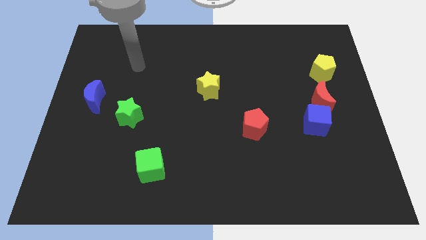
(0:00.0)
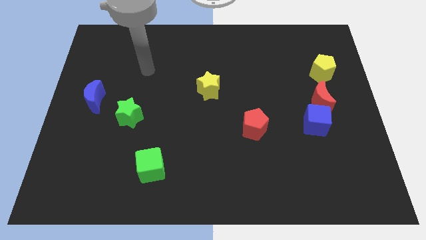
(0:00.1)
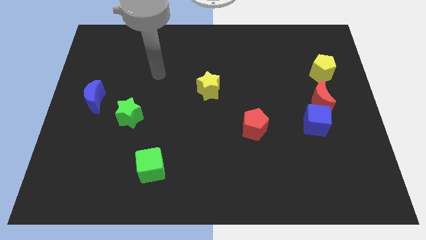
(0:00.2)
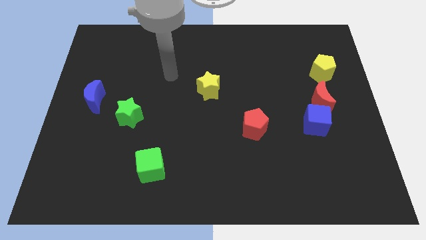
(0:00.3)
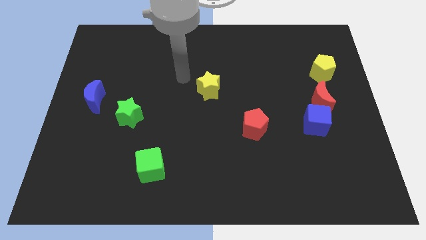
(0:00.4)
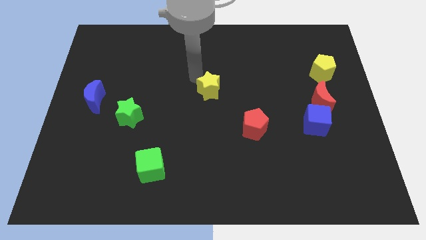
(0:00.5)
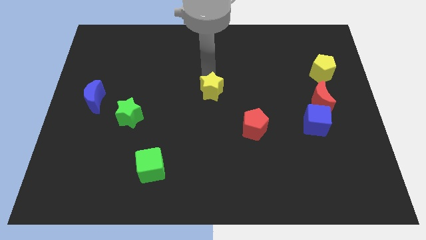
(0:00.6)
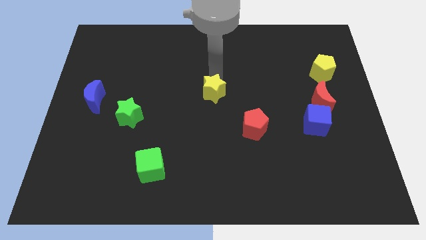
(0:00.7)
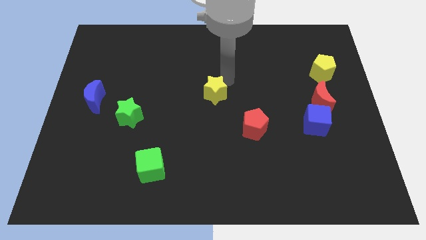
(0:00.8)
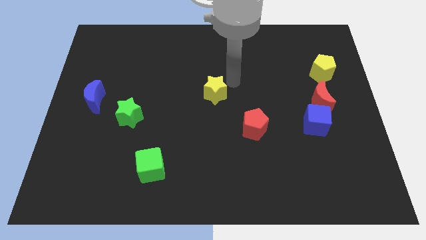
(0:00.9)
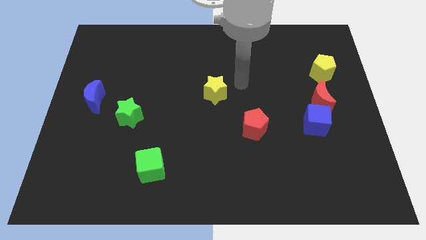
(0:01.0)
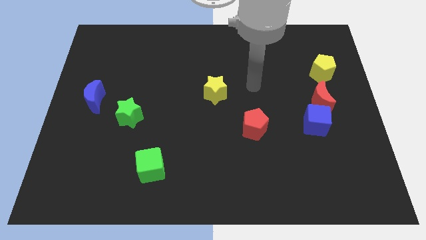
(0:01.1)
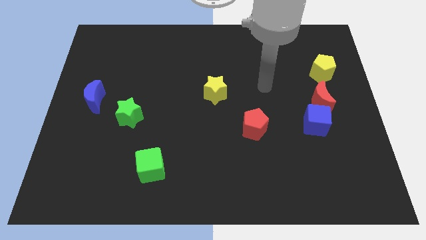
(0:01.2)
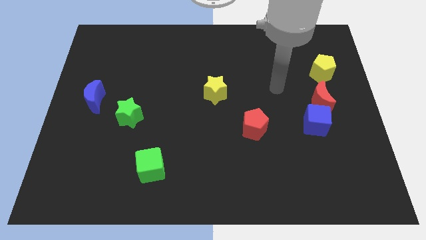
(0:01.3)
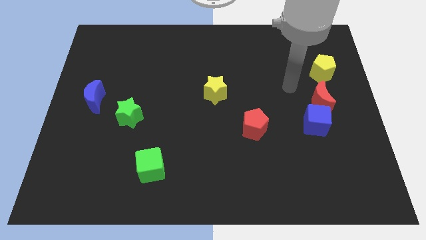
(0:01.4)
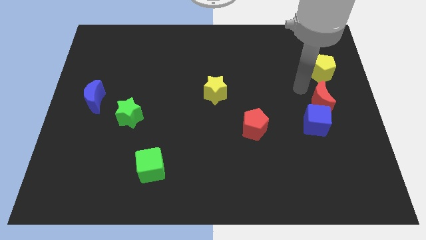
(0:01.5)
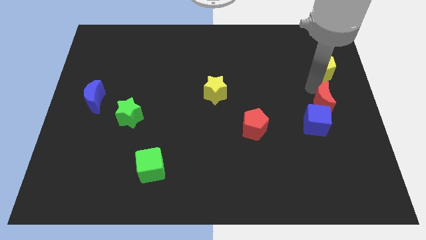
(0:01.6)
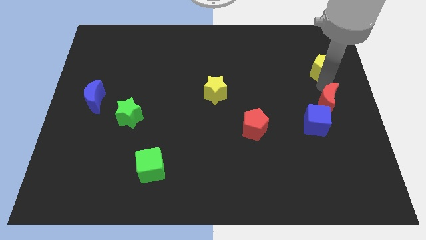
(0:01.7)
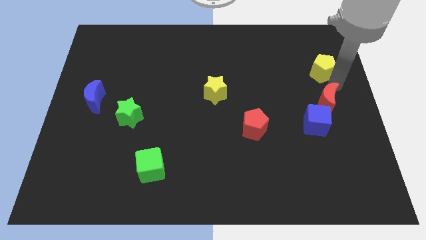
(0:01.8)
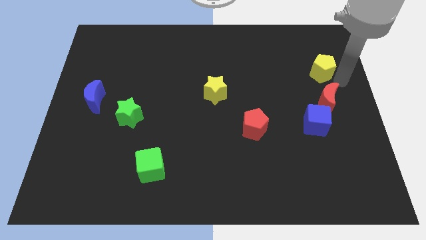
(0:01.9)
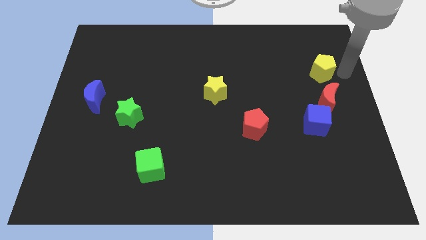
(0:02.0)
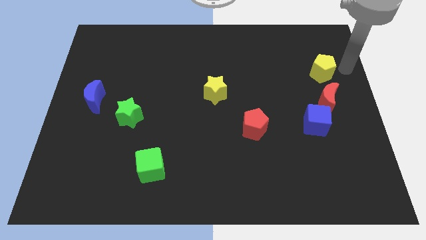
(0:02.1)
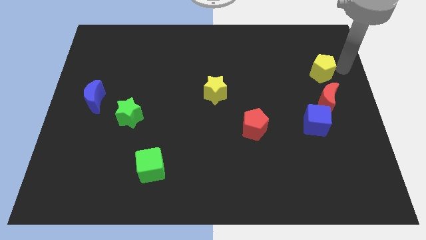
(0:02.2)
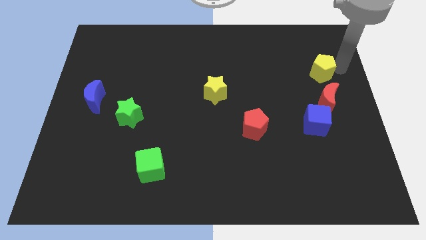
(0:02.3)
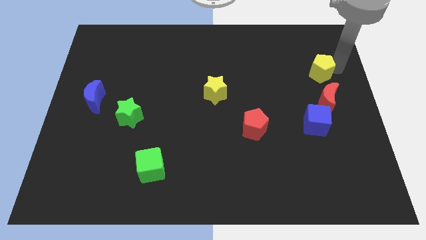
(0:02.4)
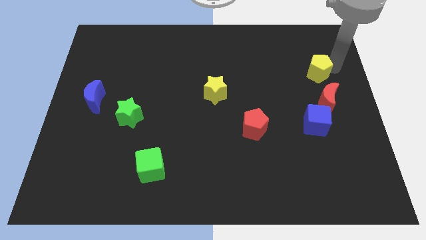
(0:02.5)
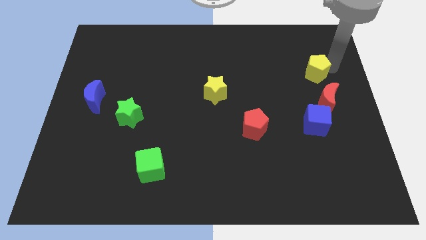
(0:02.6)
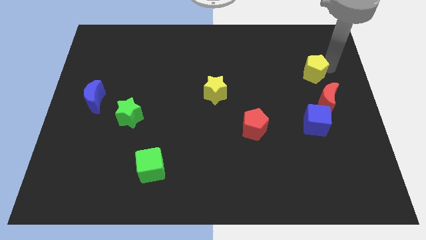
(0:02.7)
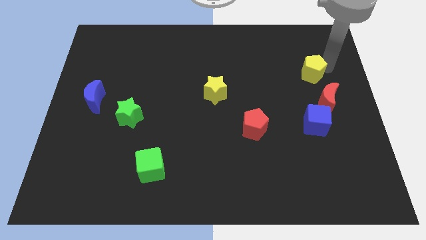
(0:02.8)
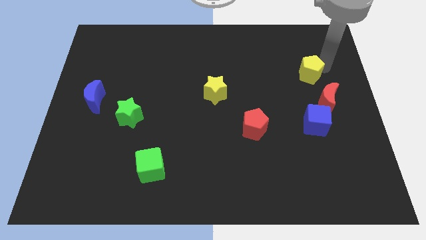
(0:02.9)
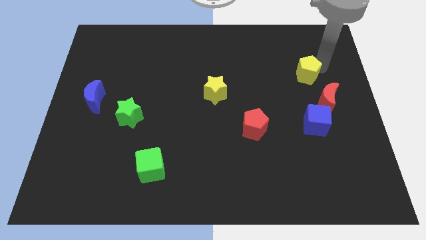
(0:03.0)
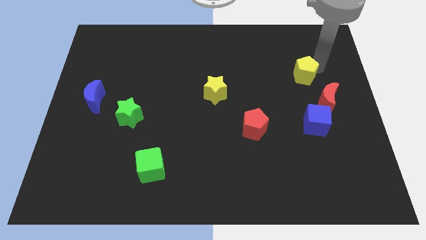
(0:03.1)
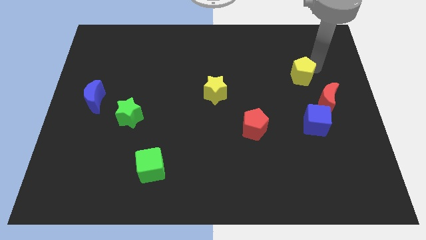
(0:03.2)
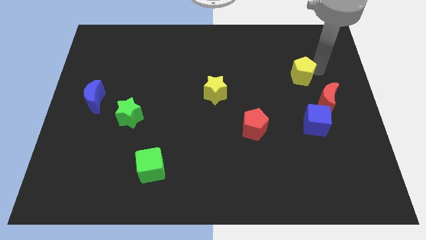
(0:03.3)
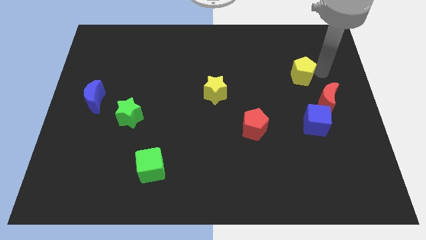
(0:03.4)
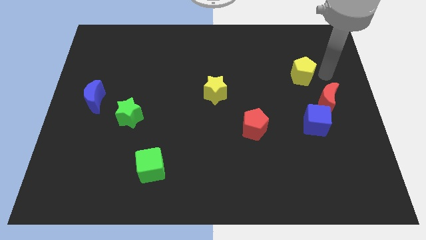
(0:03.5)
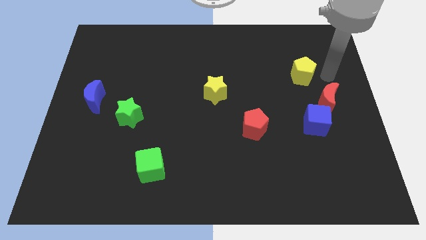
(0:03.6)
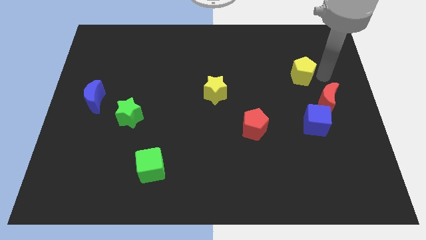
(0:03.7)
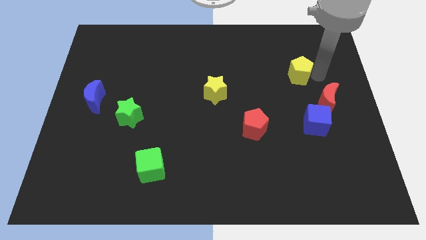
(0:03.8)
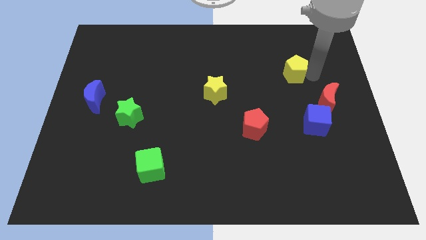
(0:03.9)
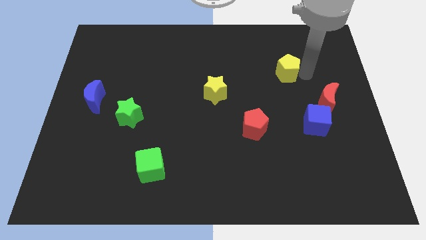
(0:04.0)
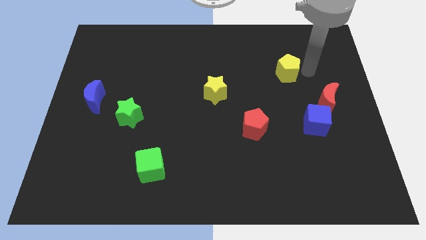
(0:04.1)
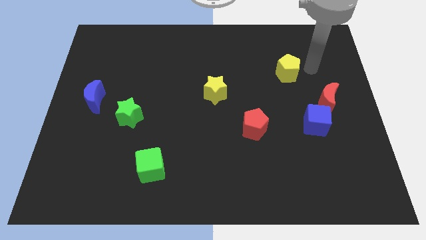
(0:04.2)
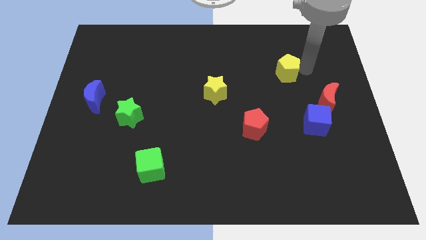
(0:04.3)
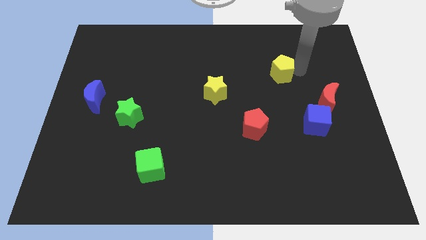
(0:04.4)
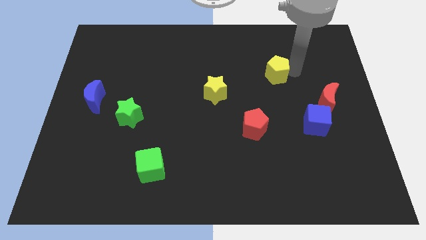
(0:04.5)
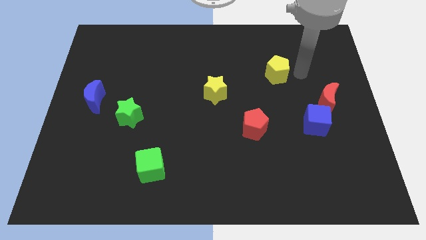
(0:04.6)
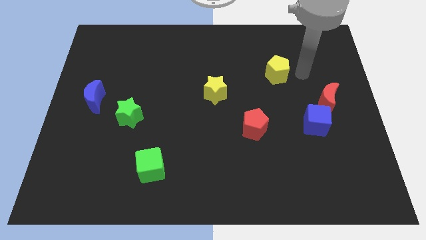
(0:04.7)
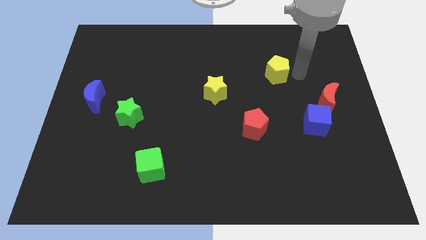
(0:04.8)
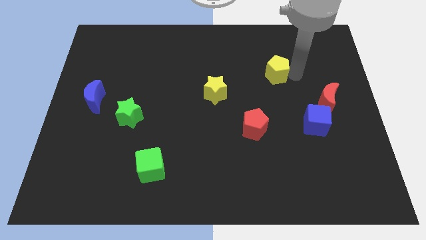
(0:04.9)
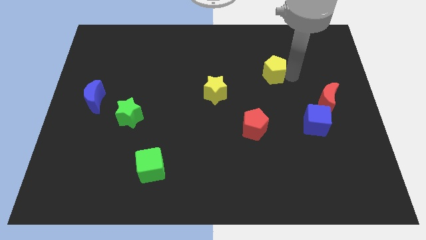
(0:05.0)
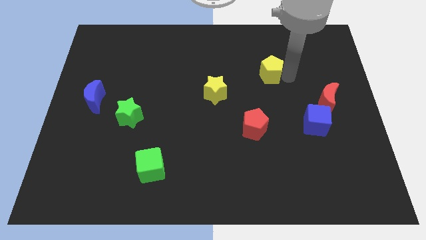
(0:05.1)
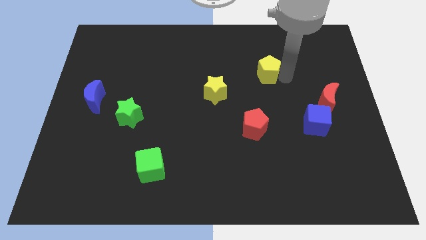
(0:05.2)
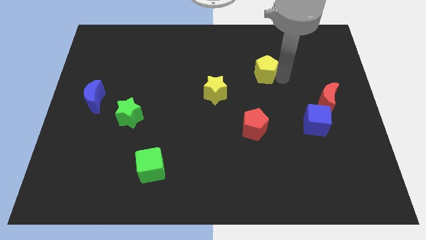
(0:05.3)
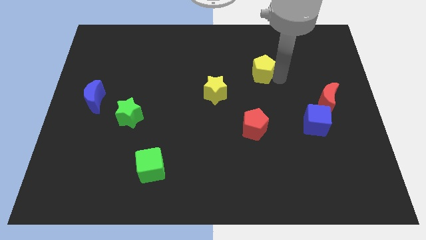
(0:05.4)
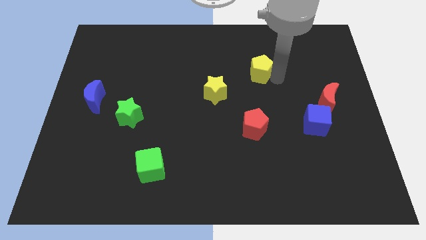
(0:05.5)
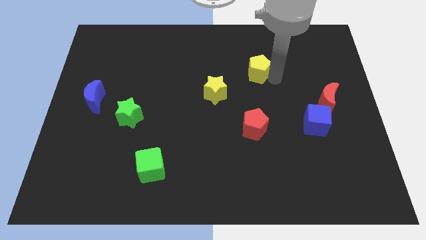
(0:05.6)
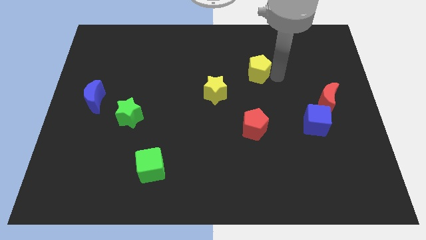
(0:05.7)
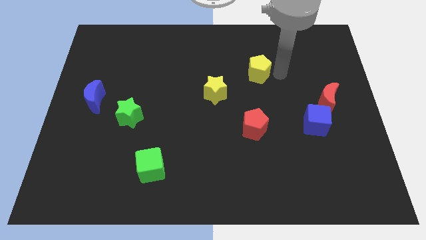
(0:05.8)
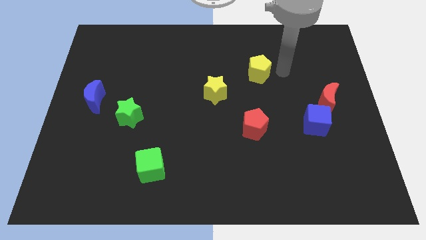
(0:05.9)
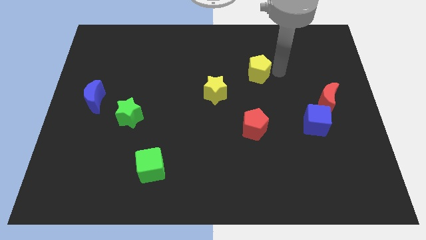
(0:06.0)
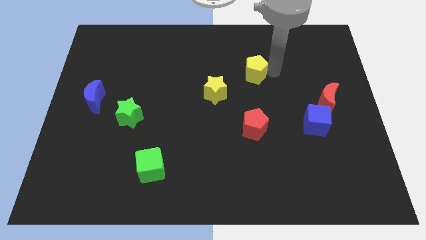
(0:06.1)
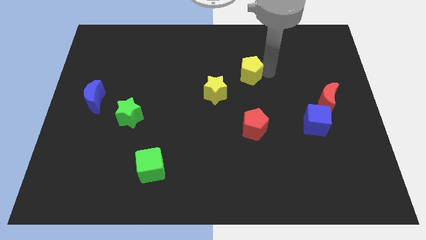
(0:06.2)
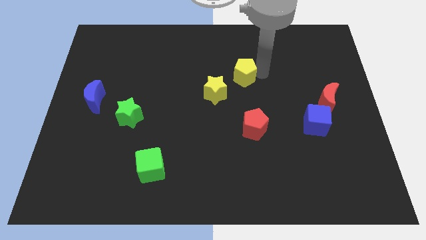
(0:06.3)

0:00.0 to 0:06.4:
slide the yellow pentagon to the left

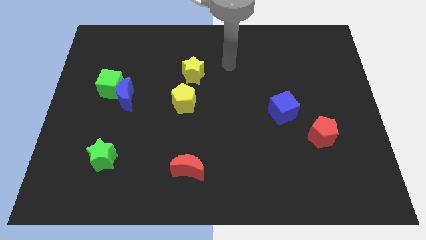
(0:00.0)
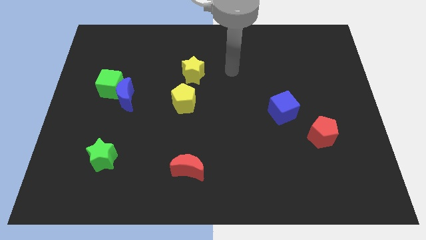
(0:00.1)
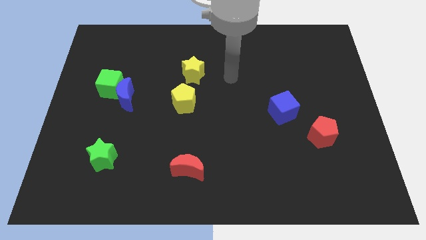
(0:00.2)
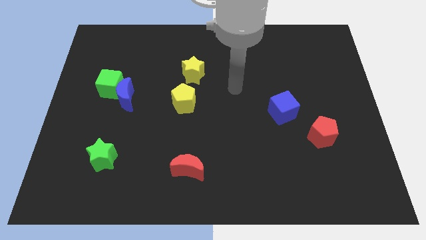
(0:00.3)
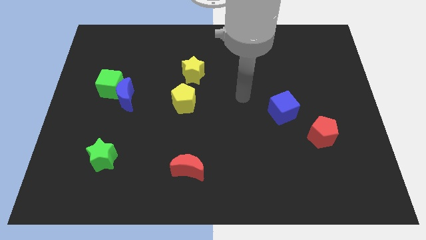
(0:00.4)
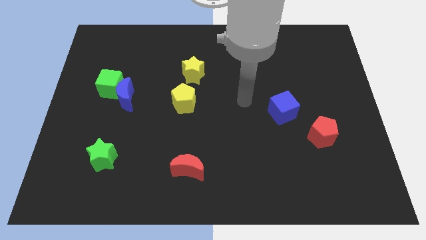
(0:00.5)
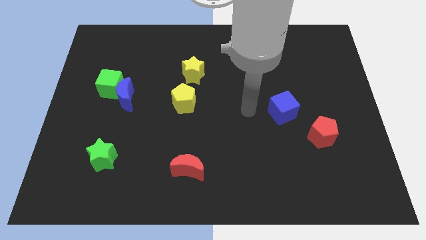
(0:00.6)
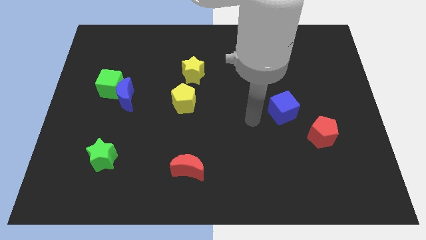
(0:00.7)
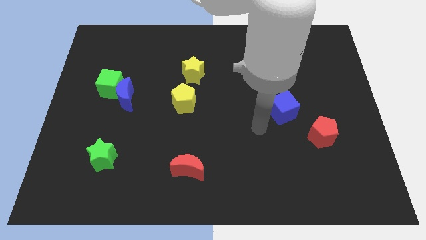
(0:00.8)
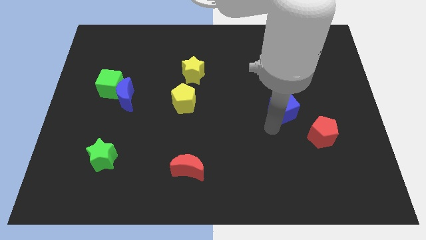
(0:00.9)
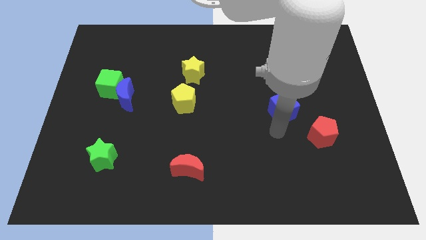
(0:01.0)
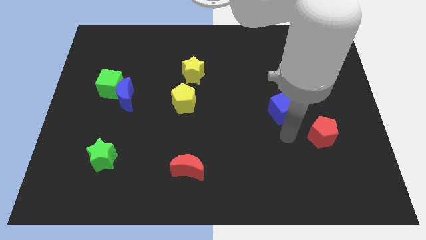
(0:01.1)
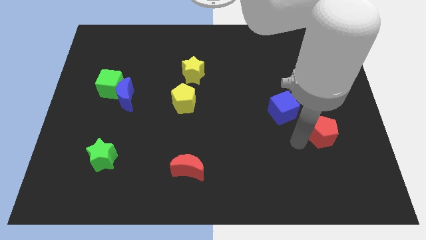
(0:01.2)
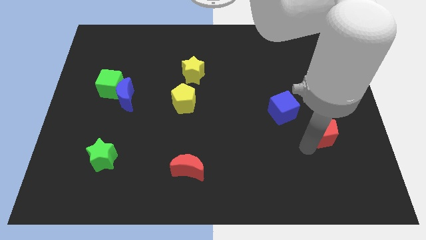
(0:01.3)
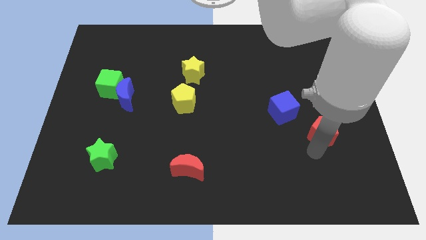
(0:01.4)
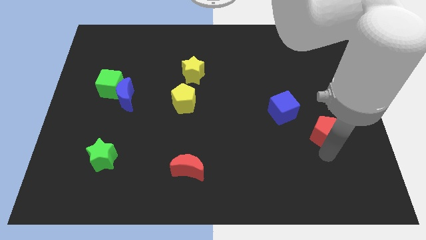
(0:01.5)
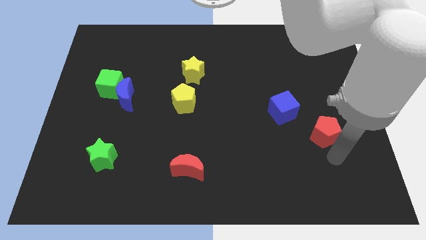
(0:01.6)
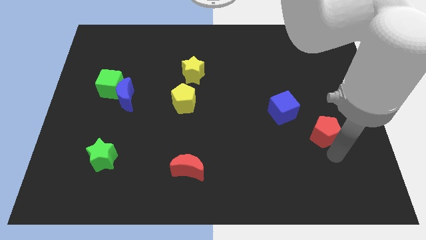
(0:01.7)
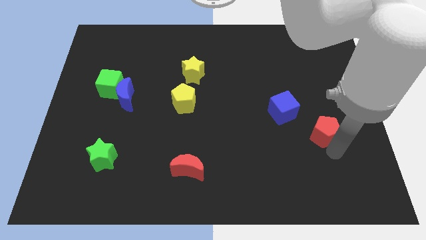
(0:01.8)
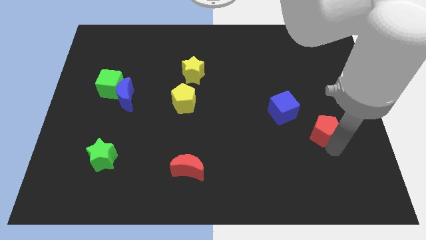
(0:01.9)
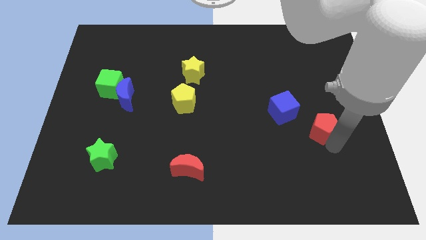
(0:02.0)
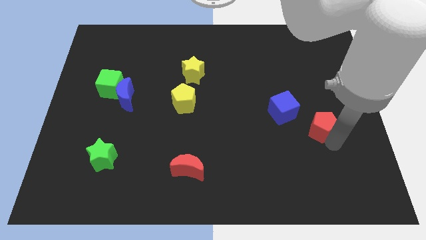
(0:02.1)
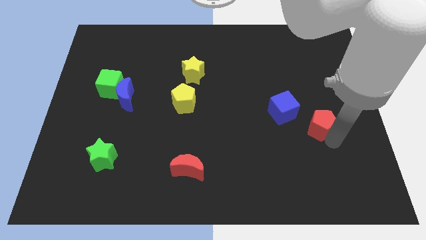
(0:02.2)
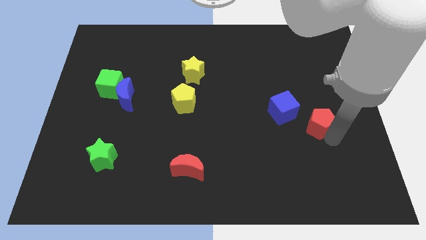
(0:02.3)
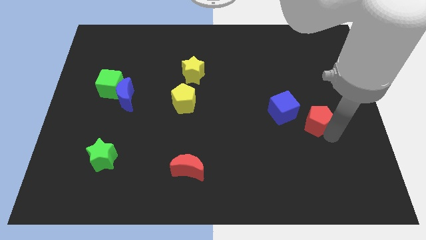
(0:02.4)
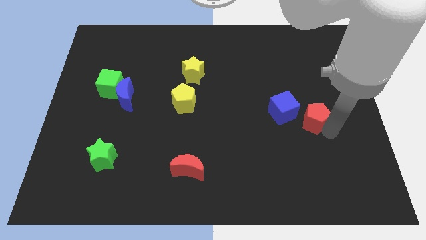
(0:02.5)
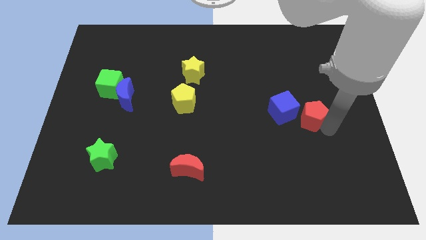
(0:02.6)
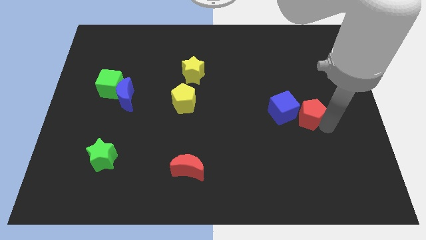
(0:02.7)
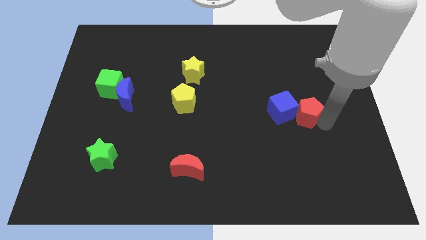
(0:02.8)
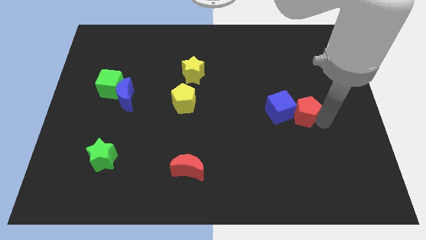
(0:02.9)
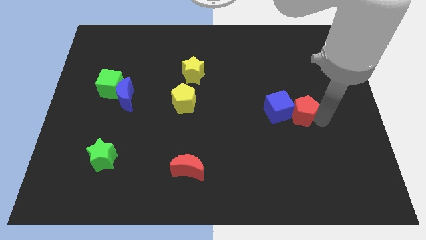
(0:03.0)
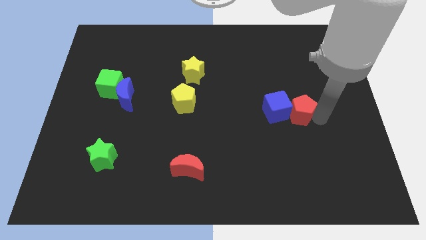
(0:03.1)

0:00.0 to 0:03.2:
slide the red pentagon slightly upwards and then left
